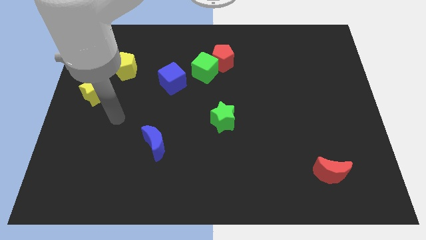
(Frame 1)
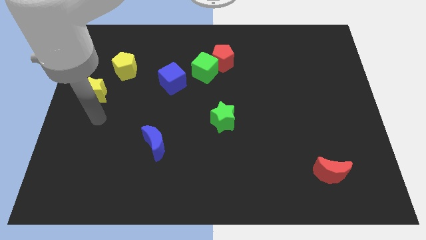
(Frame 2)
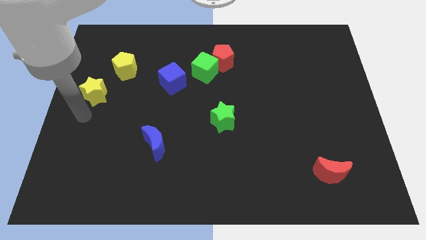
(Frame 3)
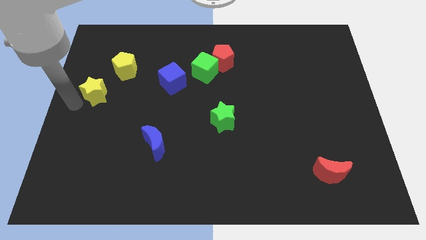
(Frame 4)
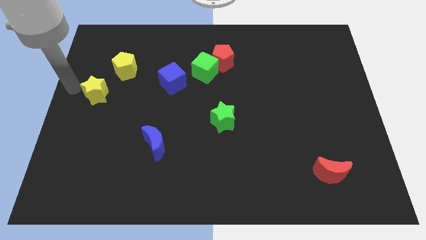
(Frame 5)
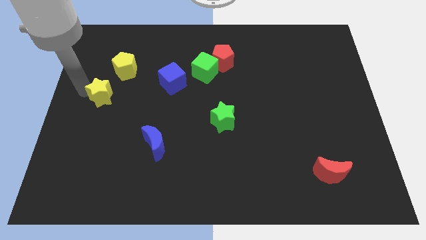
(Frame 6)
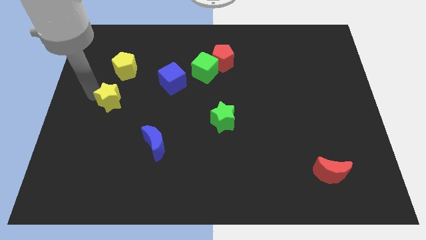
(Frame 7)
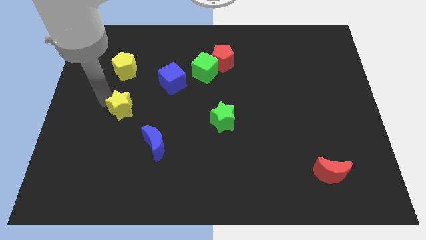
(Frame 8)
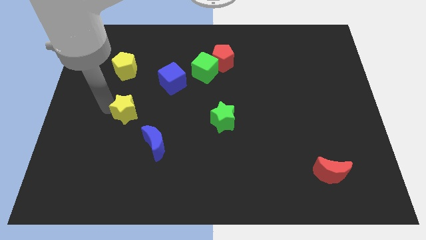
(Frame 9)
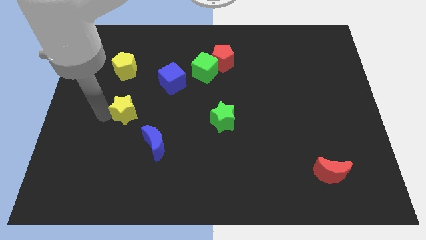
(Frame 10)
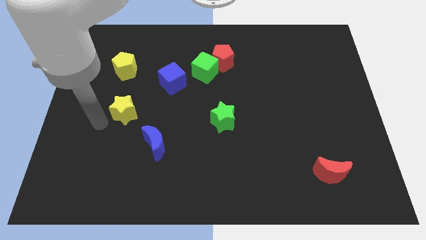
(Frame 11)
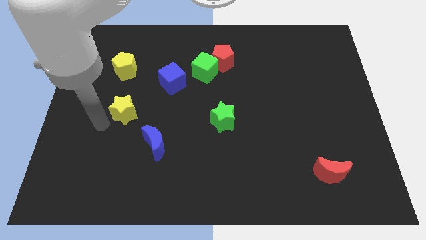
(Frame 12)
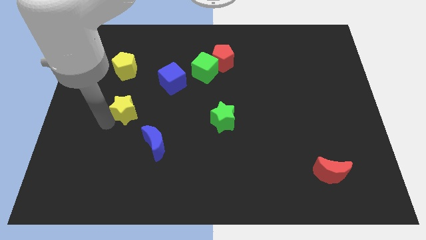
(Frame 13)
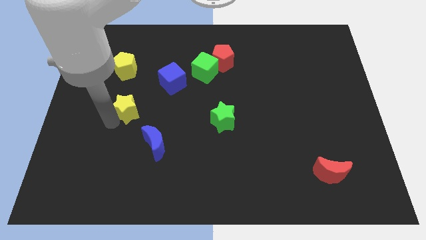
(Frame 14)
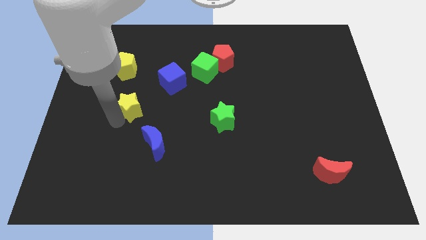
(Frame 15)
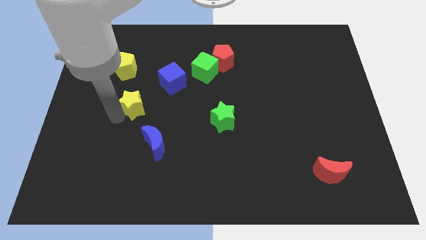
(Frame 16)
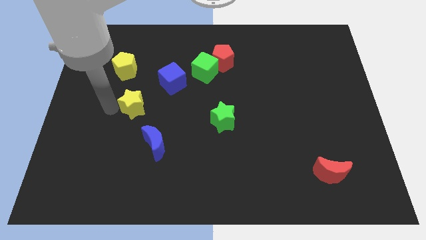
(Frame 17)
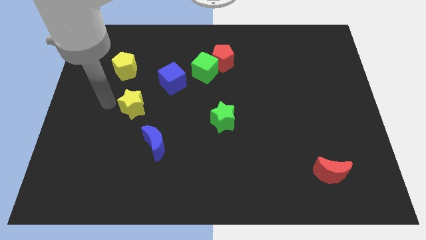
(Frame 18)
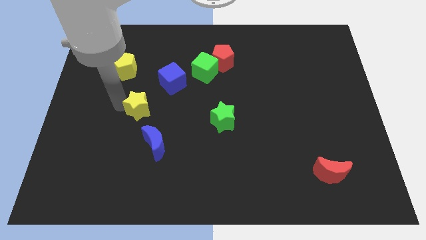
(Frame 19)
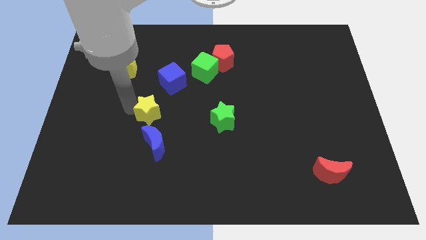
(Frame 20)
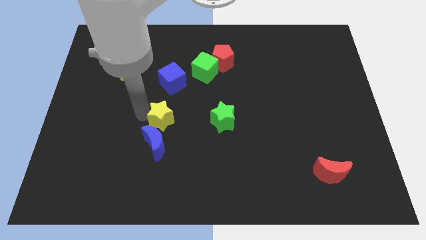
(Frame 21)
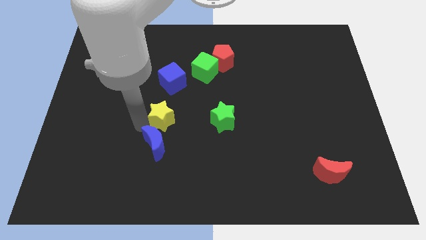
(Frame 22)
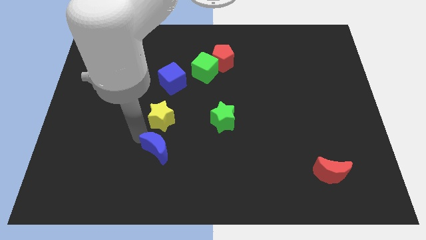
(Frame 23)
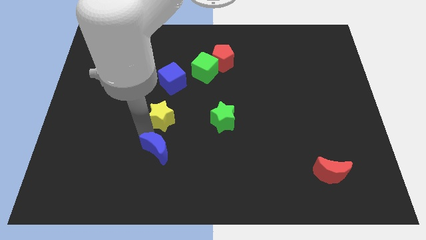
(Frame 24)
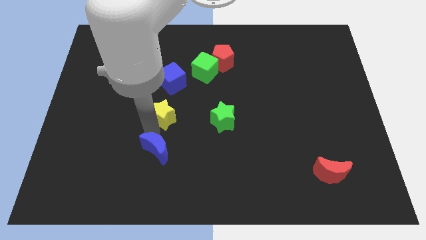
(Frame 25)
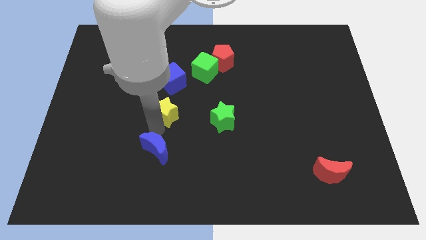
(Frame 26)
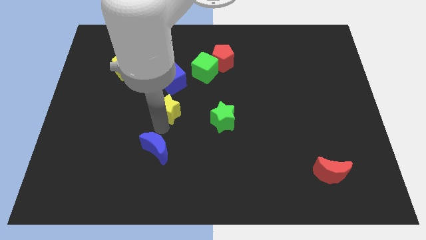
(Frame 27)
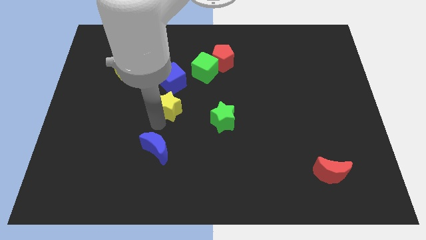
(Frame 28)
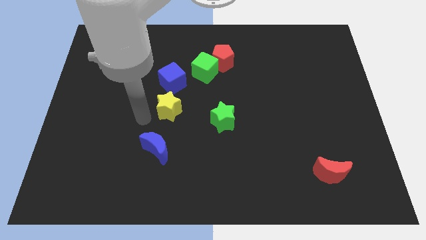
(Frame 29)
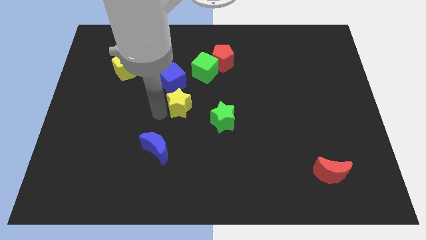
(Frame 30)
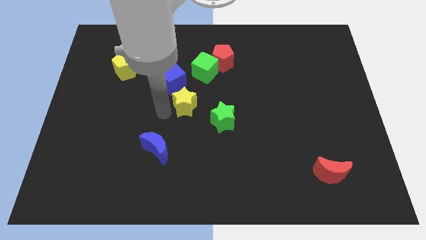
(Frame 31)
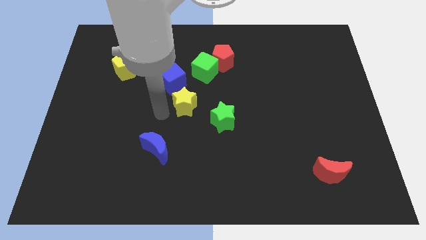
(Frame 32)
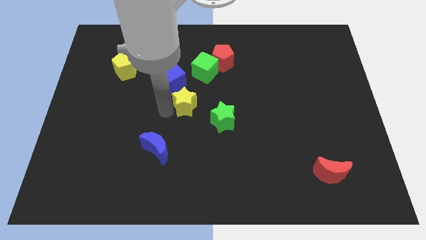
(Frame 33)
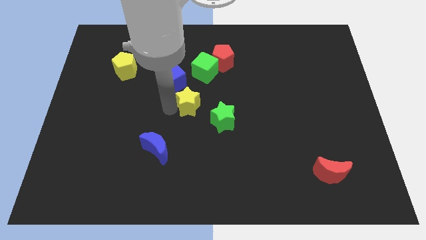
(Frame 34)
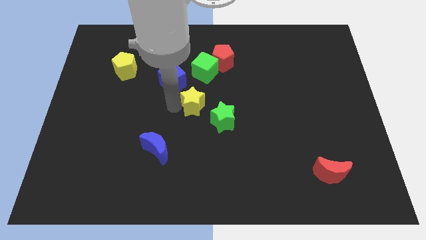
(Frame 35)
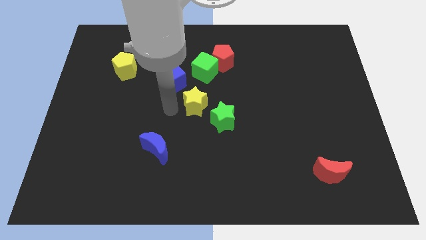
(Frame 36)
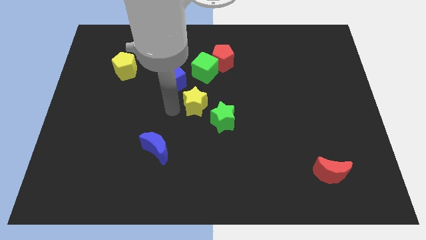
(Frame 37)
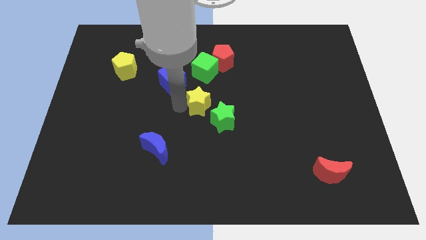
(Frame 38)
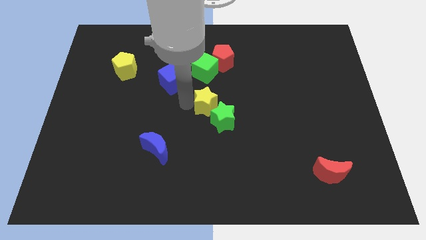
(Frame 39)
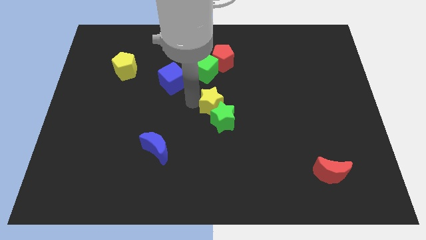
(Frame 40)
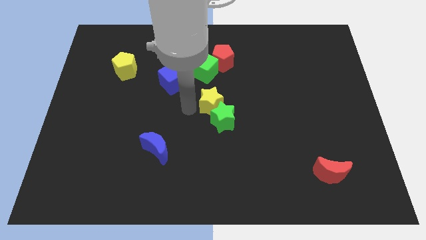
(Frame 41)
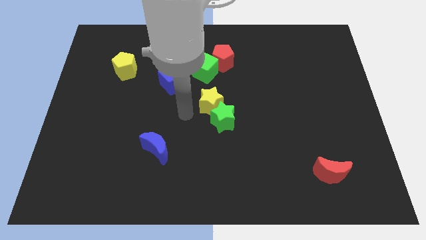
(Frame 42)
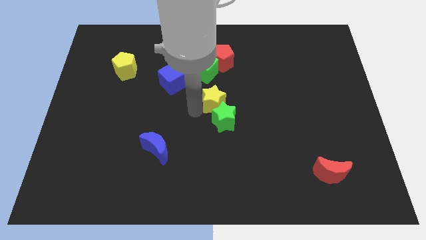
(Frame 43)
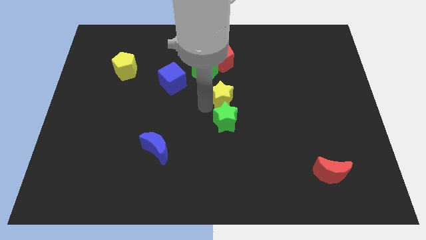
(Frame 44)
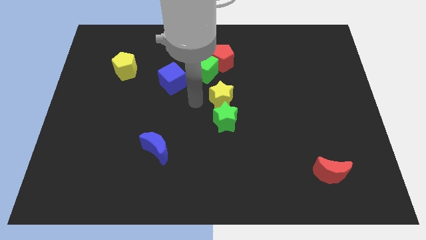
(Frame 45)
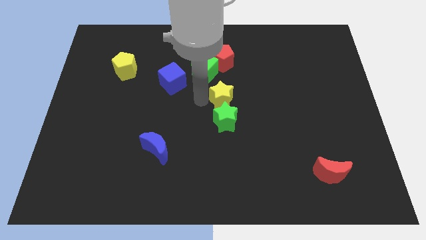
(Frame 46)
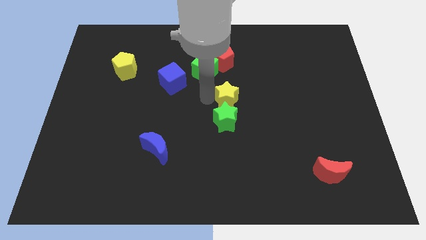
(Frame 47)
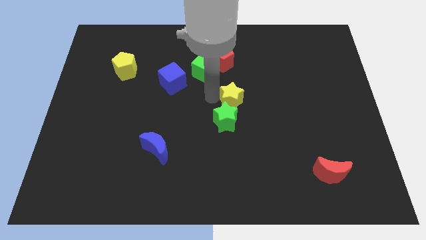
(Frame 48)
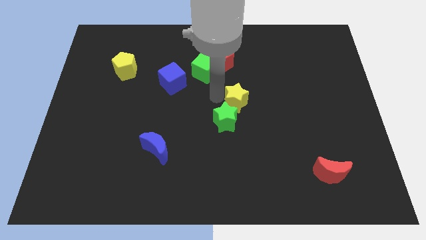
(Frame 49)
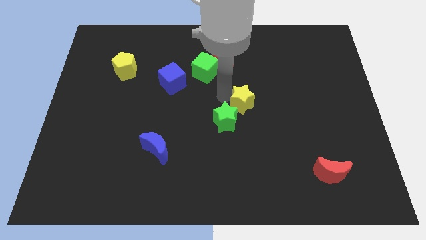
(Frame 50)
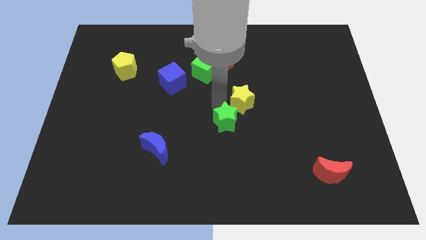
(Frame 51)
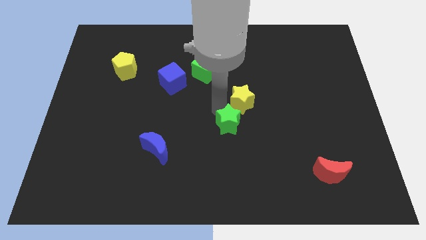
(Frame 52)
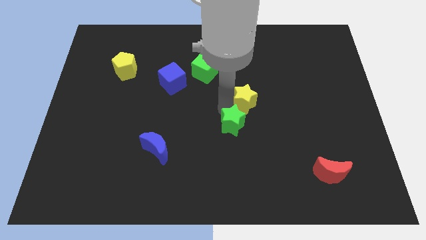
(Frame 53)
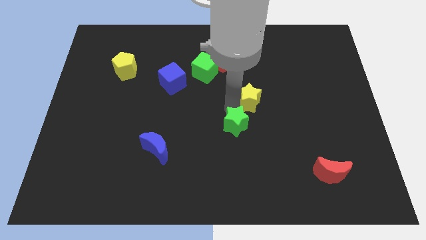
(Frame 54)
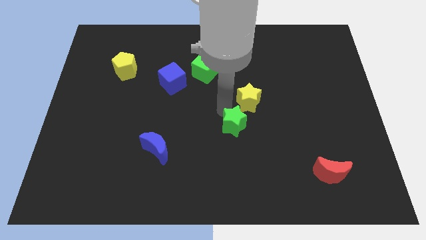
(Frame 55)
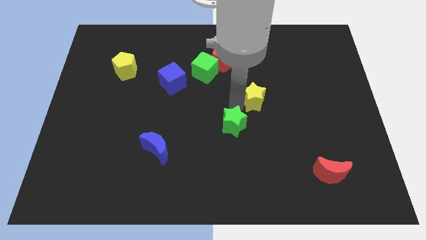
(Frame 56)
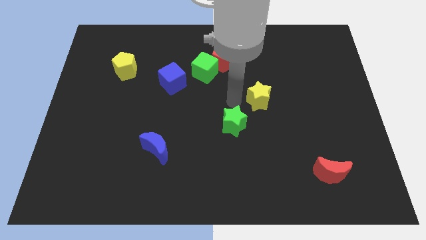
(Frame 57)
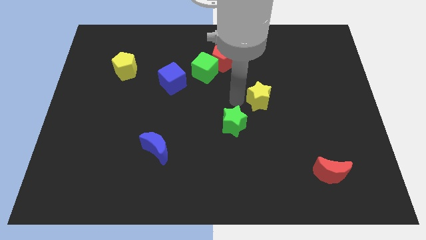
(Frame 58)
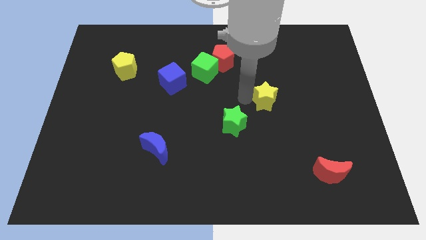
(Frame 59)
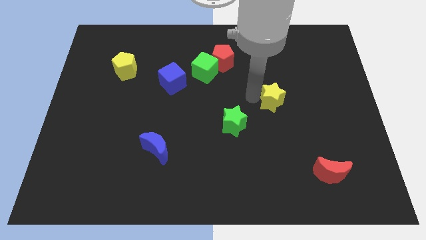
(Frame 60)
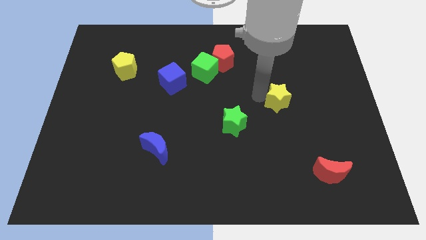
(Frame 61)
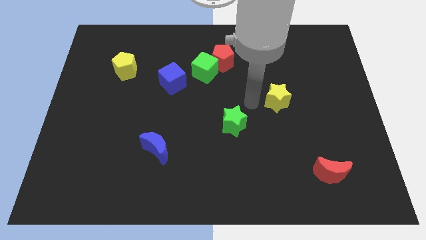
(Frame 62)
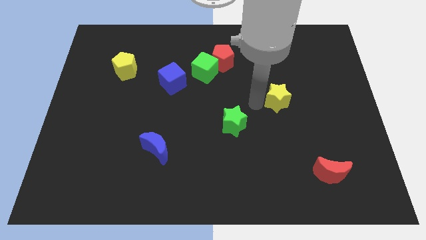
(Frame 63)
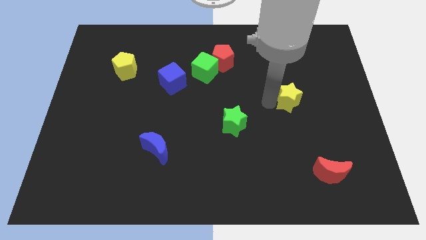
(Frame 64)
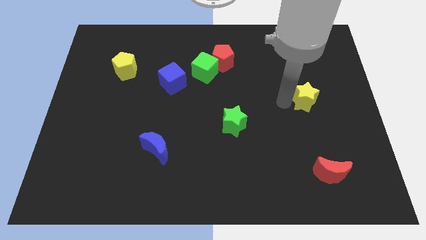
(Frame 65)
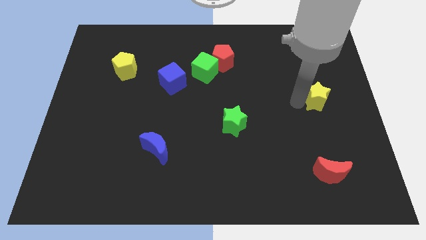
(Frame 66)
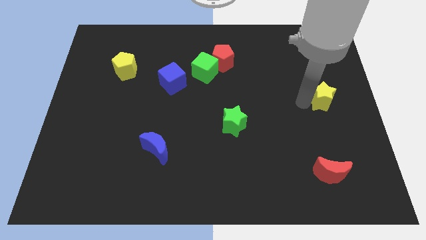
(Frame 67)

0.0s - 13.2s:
move the yellow star to the right side
